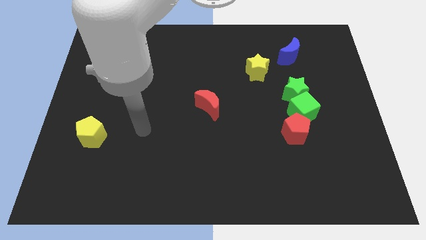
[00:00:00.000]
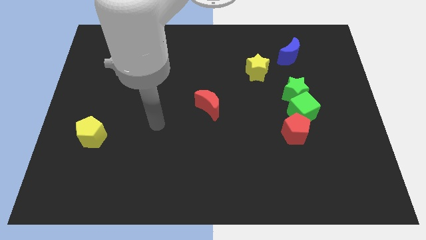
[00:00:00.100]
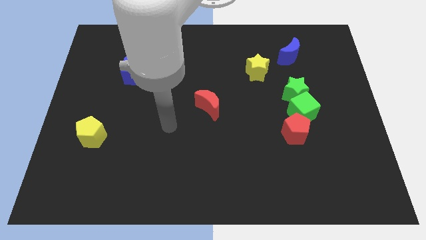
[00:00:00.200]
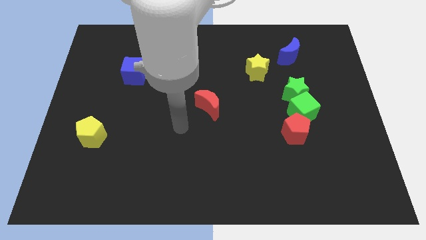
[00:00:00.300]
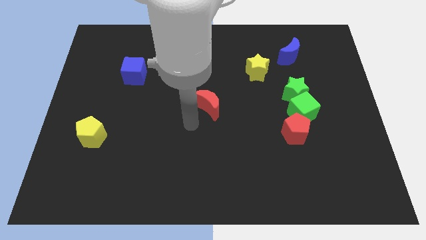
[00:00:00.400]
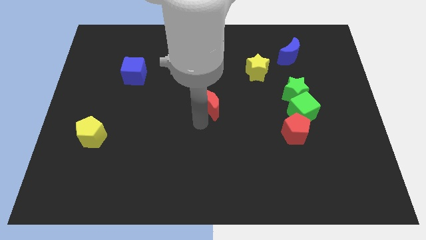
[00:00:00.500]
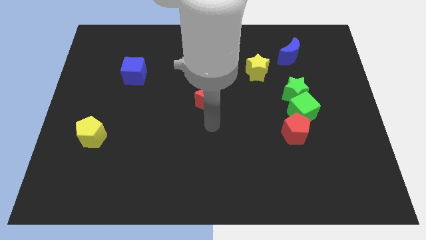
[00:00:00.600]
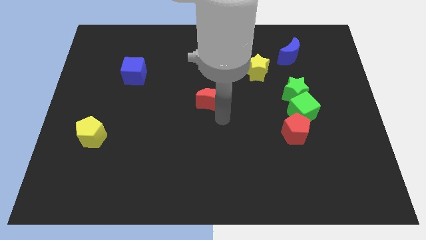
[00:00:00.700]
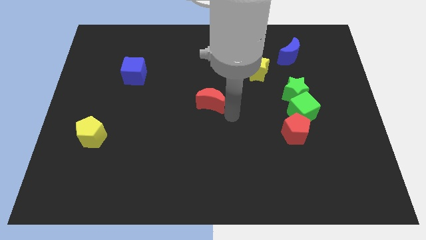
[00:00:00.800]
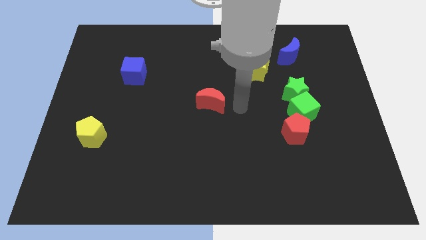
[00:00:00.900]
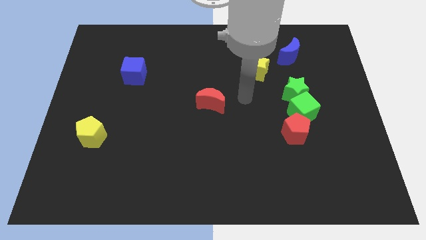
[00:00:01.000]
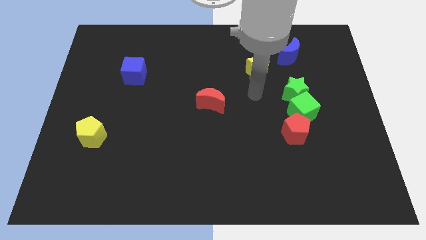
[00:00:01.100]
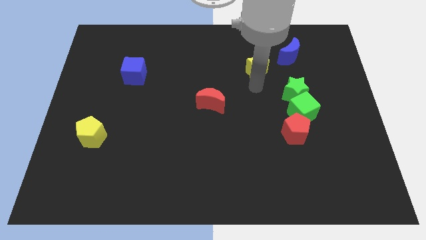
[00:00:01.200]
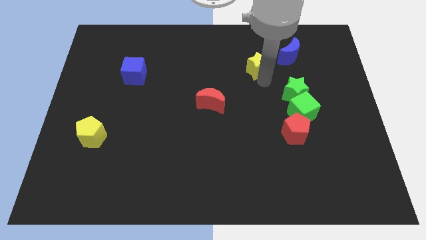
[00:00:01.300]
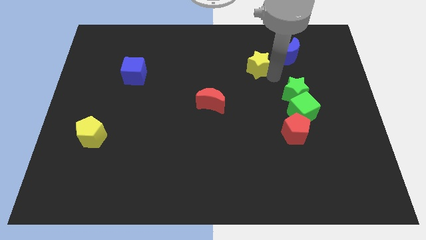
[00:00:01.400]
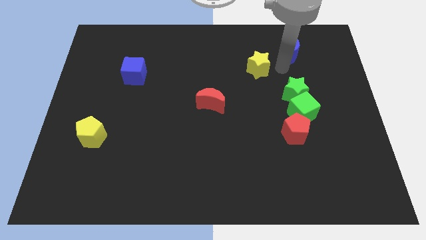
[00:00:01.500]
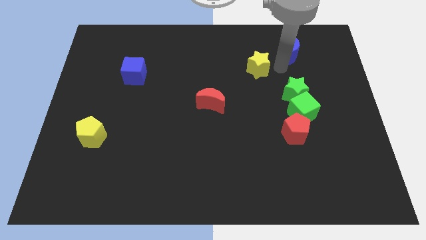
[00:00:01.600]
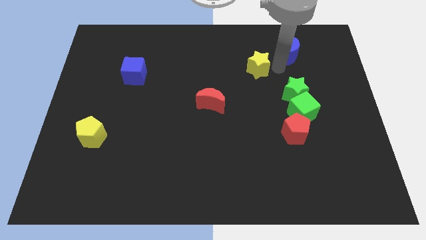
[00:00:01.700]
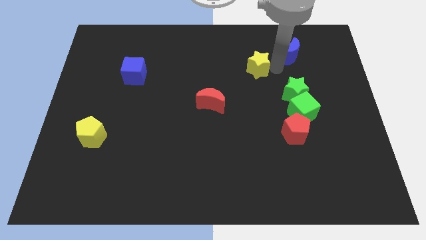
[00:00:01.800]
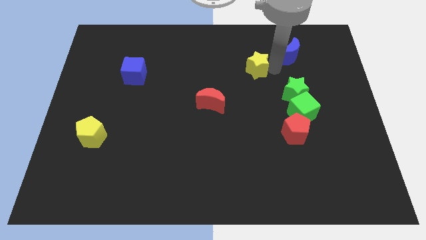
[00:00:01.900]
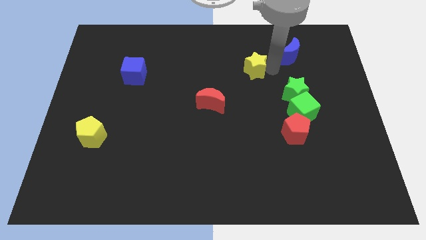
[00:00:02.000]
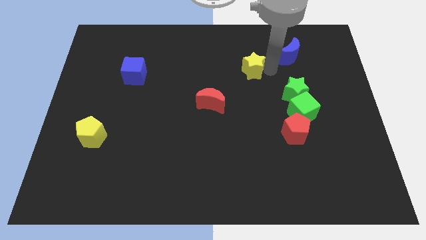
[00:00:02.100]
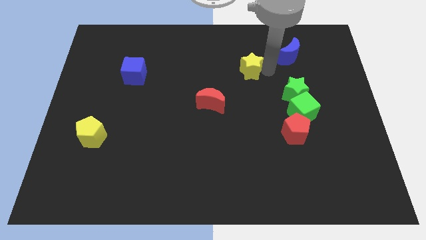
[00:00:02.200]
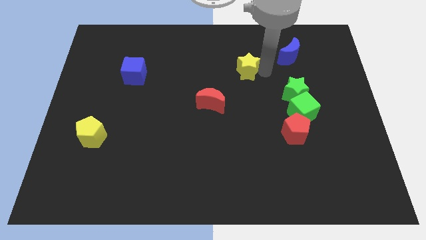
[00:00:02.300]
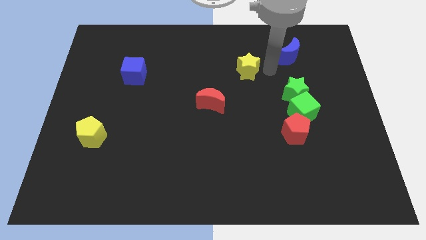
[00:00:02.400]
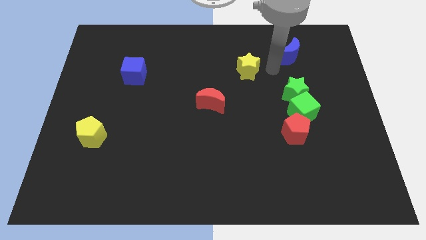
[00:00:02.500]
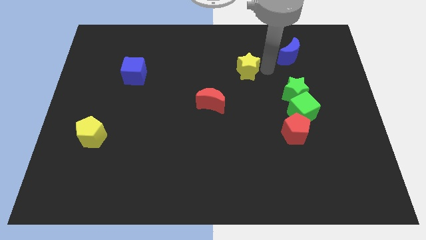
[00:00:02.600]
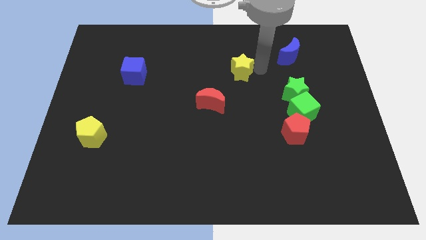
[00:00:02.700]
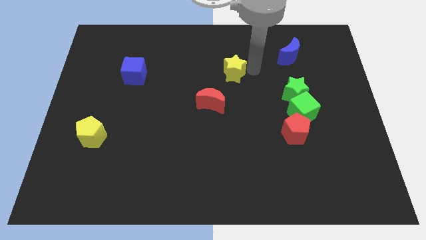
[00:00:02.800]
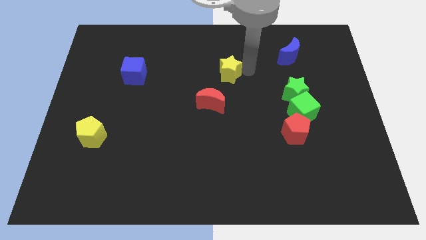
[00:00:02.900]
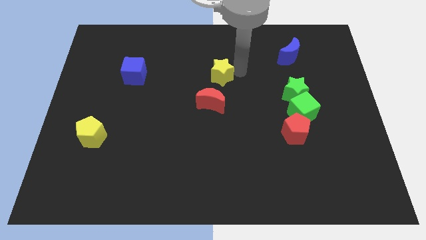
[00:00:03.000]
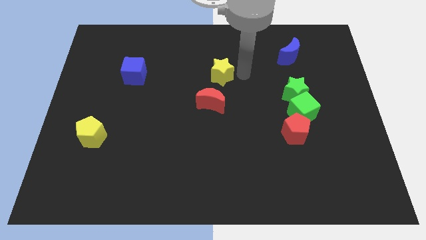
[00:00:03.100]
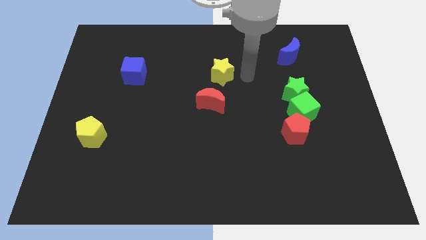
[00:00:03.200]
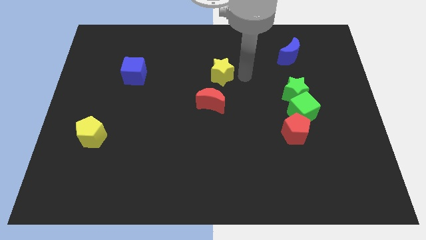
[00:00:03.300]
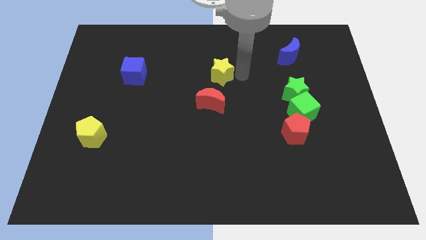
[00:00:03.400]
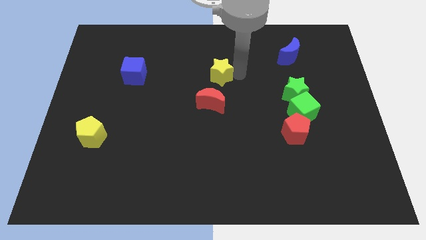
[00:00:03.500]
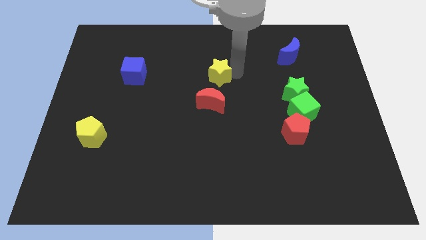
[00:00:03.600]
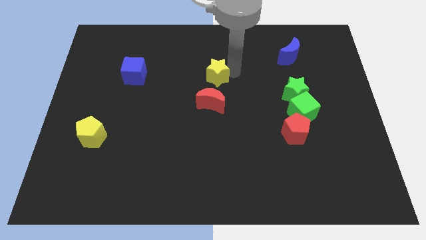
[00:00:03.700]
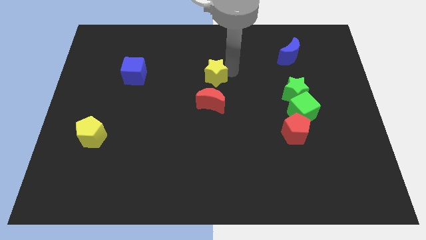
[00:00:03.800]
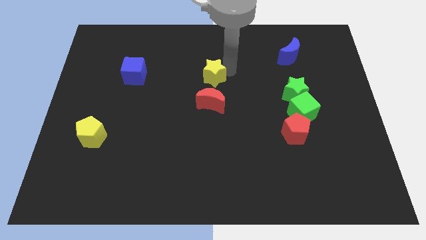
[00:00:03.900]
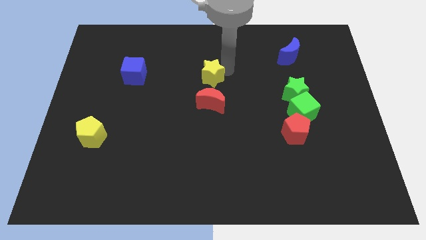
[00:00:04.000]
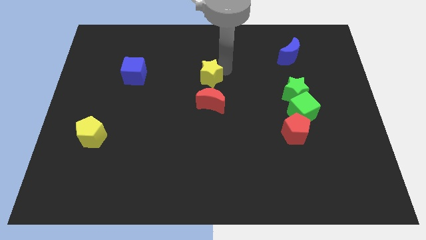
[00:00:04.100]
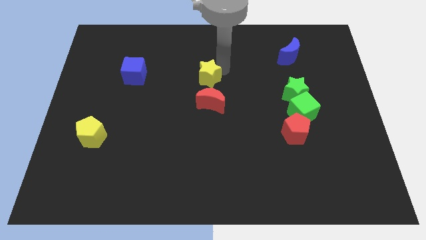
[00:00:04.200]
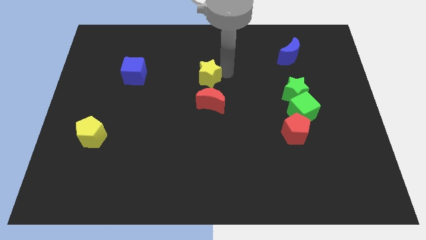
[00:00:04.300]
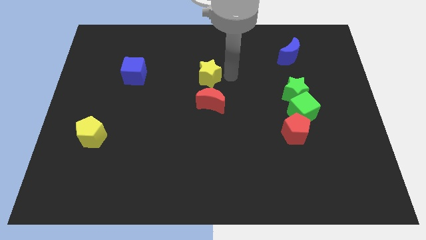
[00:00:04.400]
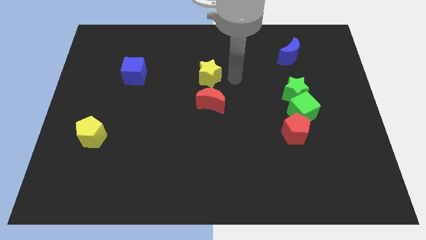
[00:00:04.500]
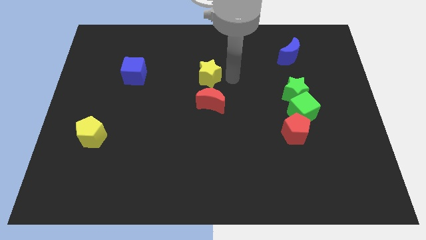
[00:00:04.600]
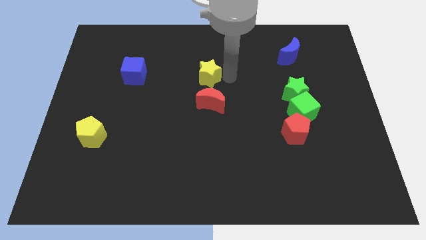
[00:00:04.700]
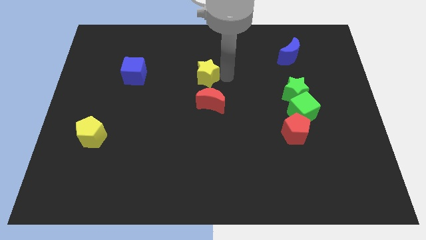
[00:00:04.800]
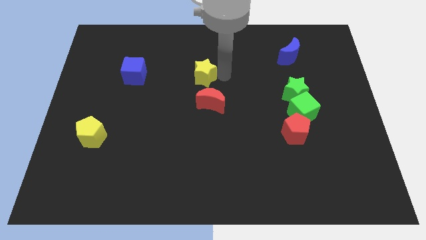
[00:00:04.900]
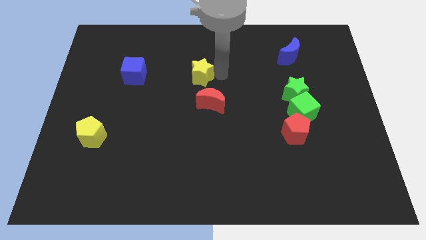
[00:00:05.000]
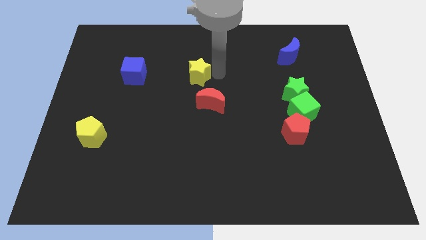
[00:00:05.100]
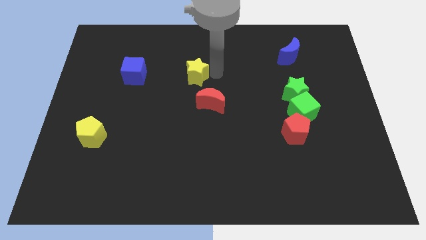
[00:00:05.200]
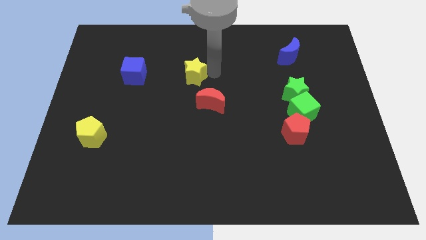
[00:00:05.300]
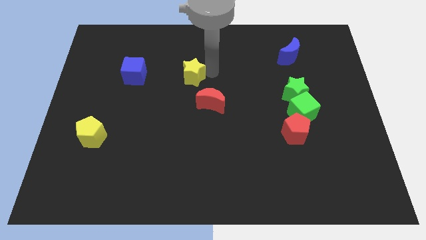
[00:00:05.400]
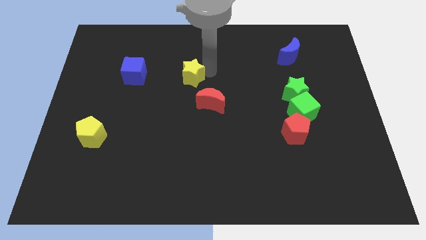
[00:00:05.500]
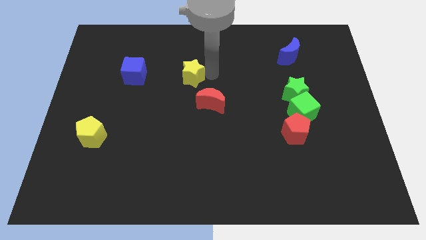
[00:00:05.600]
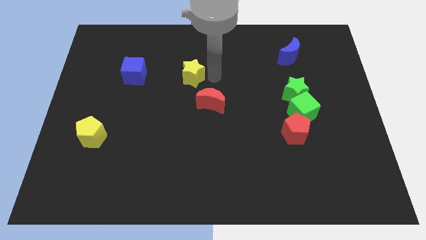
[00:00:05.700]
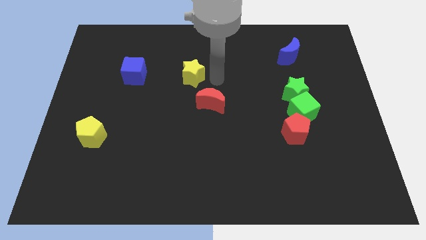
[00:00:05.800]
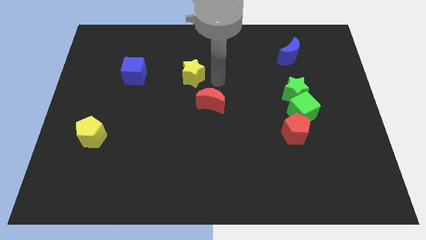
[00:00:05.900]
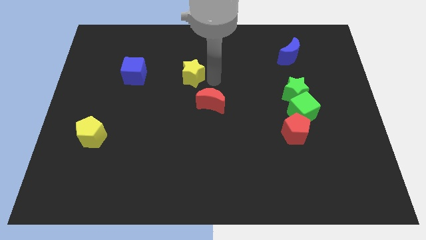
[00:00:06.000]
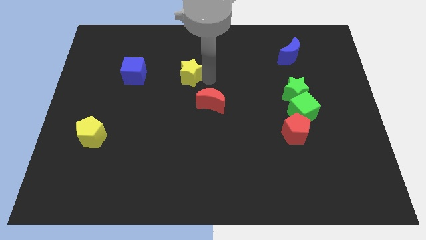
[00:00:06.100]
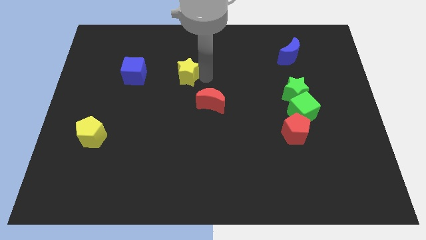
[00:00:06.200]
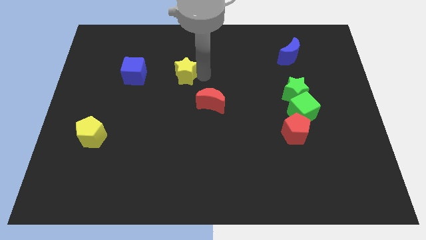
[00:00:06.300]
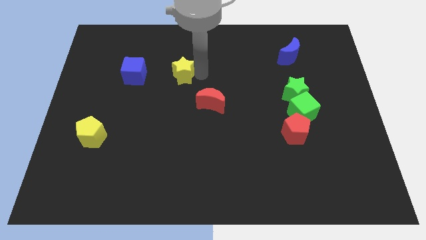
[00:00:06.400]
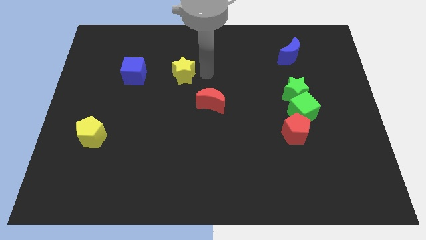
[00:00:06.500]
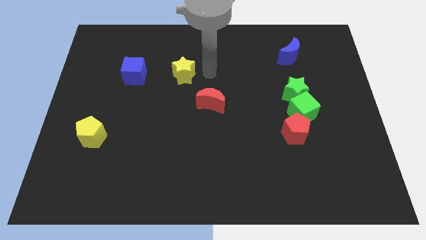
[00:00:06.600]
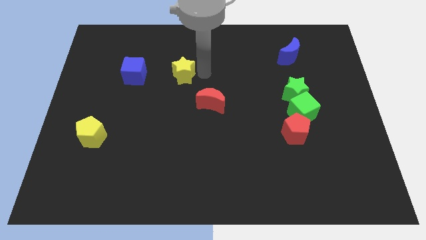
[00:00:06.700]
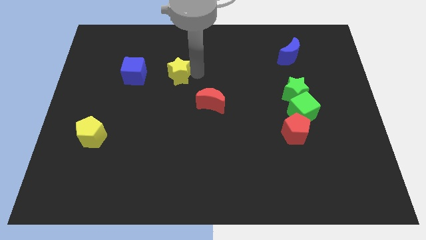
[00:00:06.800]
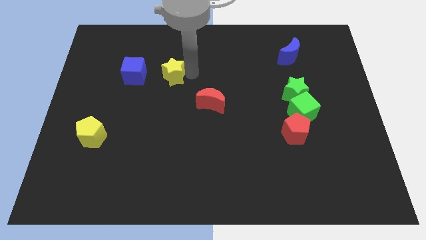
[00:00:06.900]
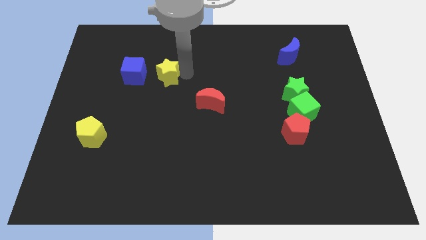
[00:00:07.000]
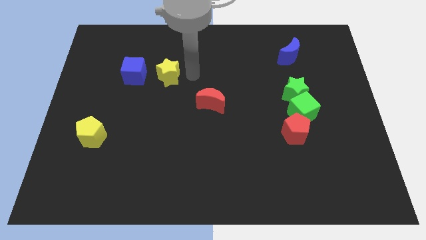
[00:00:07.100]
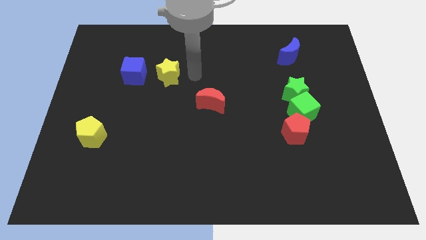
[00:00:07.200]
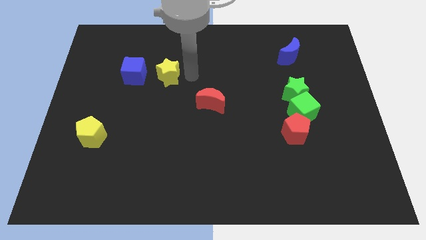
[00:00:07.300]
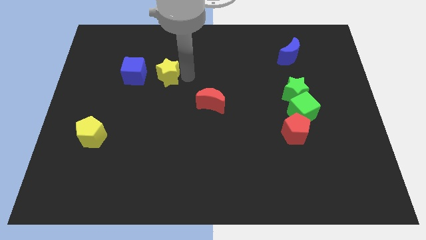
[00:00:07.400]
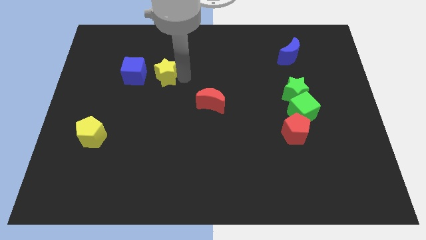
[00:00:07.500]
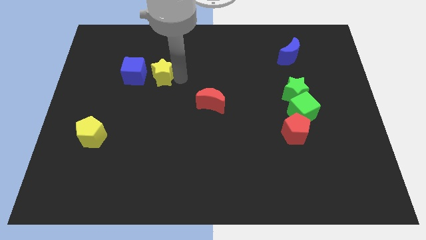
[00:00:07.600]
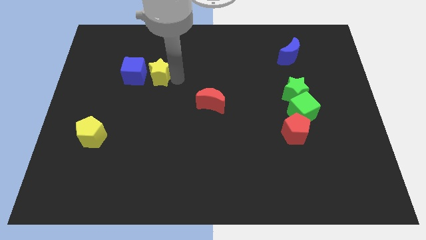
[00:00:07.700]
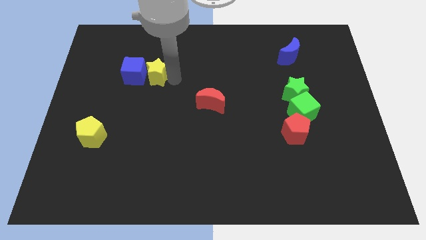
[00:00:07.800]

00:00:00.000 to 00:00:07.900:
push the yellow star towards the blue cube
